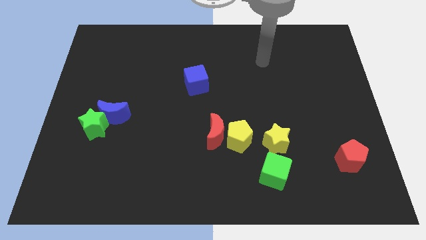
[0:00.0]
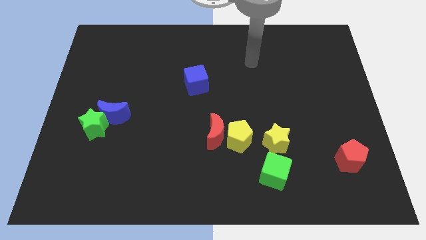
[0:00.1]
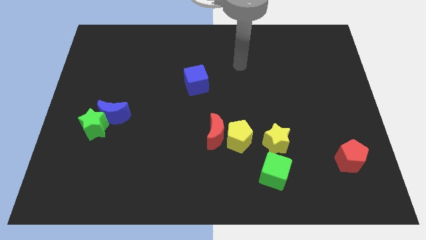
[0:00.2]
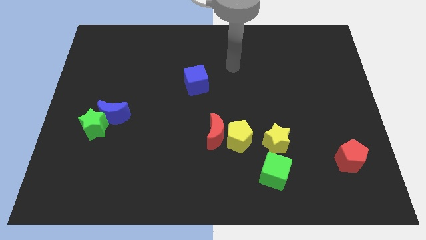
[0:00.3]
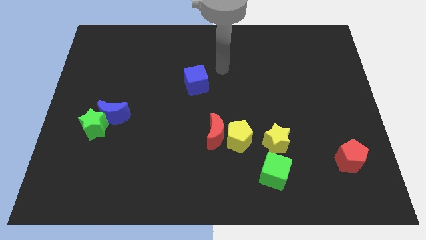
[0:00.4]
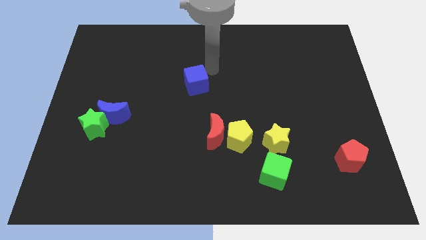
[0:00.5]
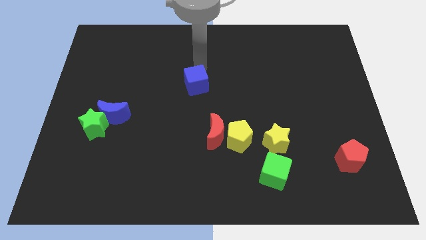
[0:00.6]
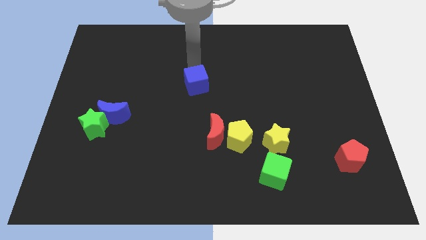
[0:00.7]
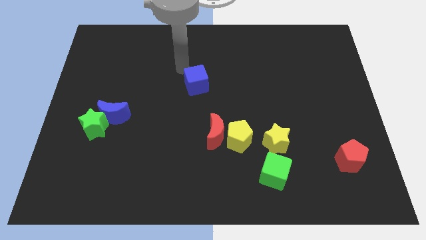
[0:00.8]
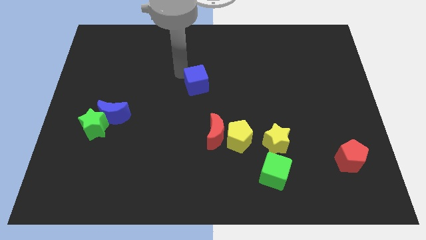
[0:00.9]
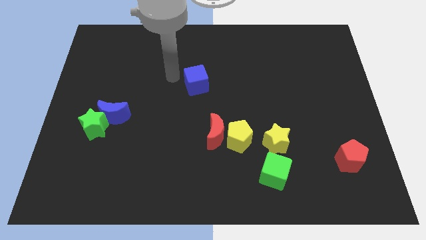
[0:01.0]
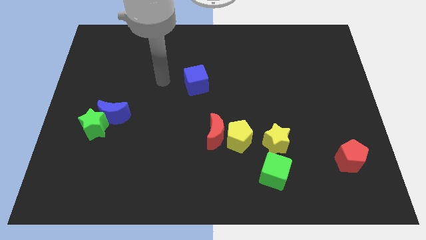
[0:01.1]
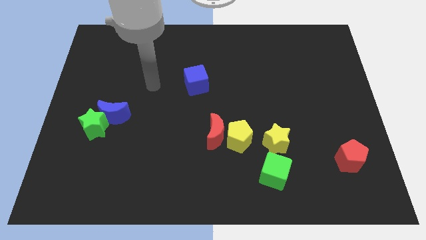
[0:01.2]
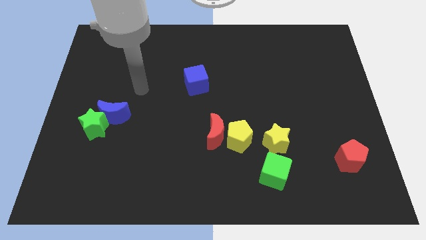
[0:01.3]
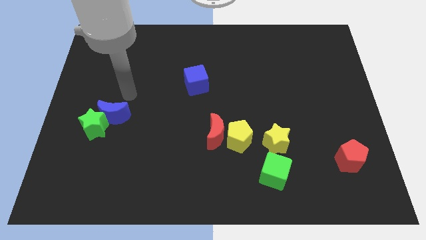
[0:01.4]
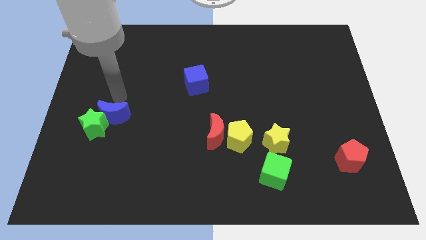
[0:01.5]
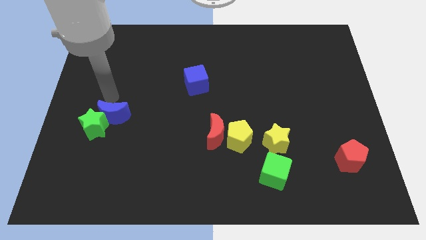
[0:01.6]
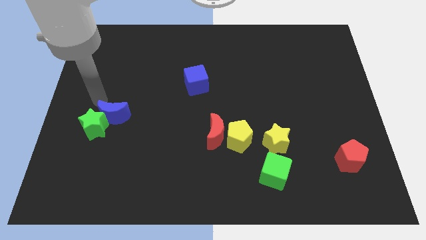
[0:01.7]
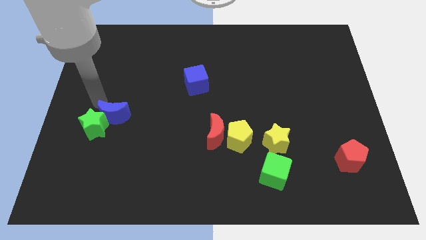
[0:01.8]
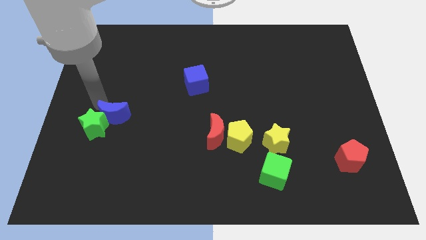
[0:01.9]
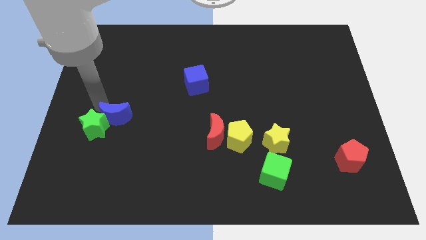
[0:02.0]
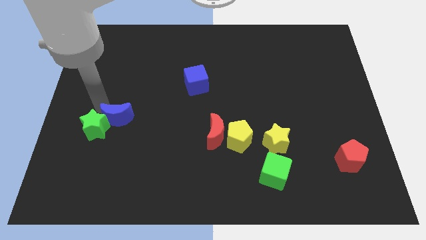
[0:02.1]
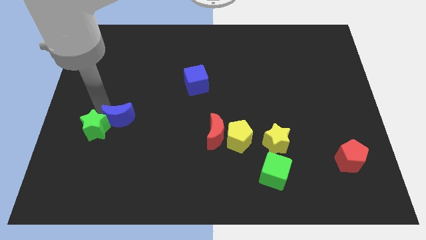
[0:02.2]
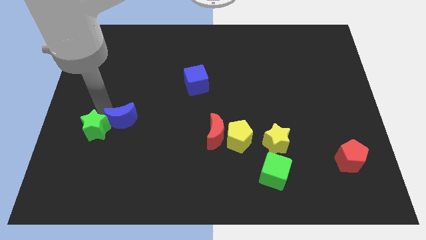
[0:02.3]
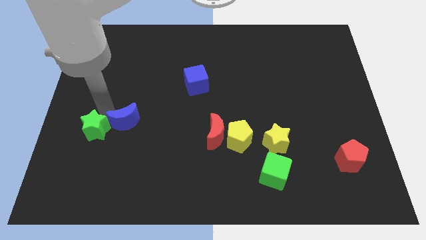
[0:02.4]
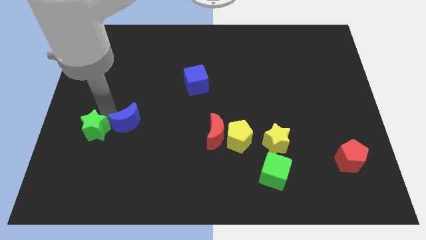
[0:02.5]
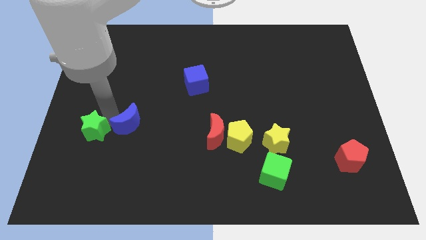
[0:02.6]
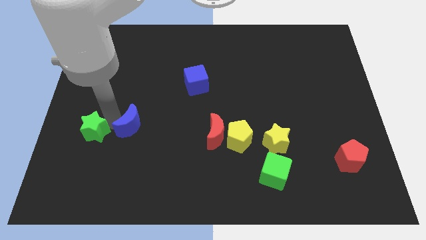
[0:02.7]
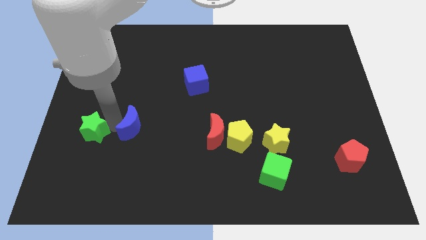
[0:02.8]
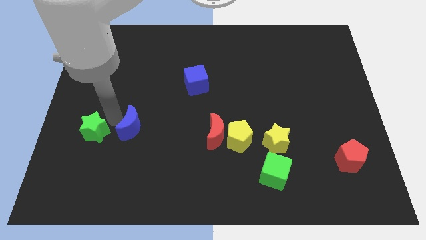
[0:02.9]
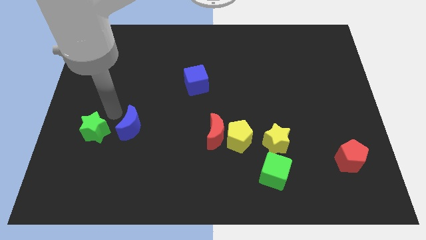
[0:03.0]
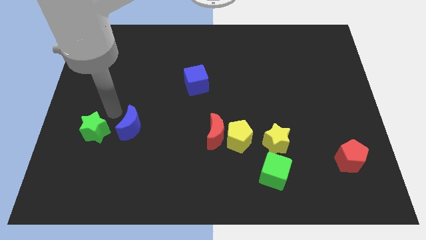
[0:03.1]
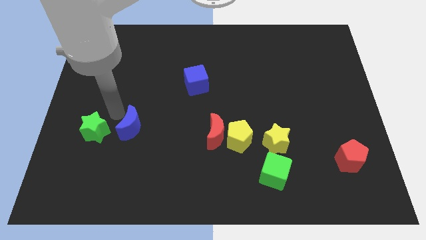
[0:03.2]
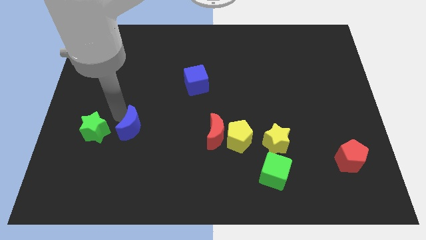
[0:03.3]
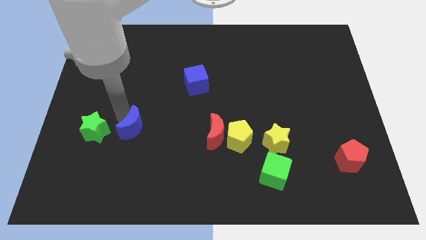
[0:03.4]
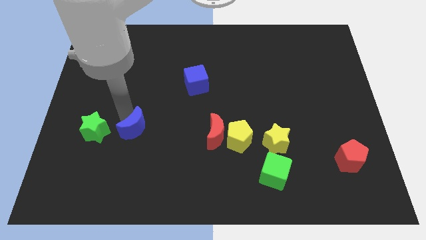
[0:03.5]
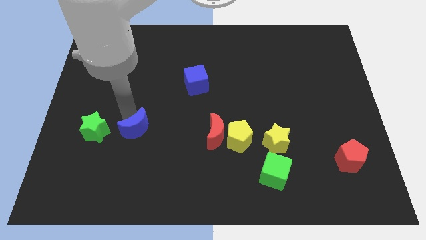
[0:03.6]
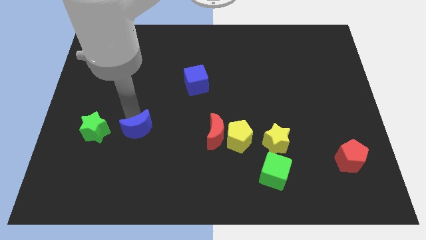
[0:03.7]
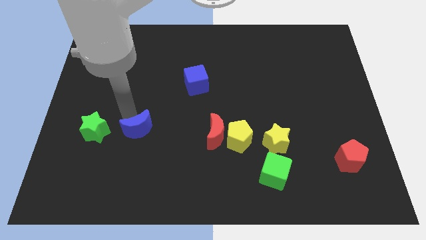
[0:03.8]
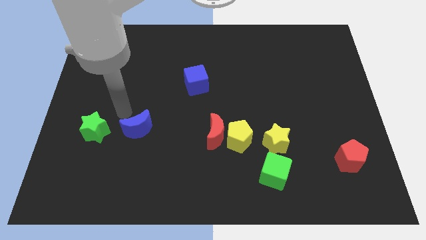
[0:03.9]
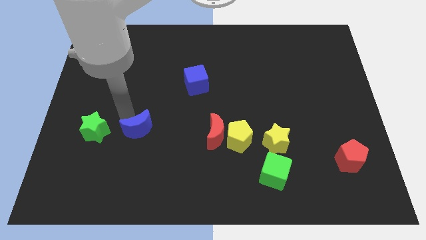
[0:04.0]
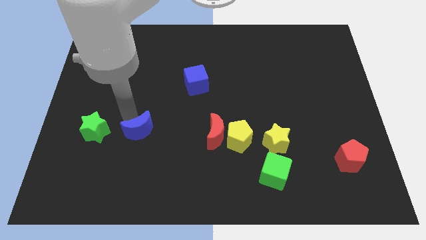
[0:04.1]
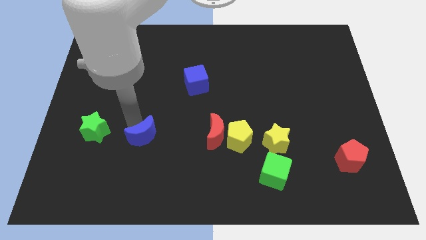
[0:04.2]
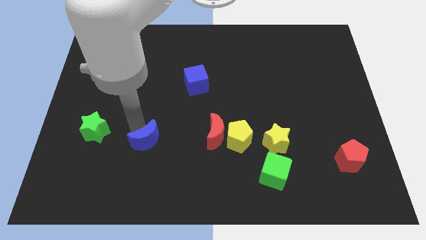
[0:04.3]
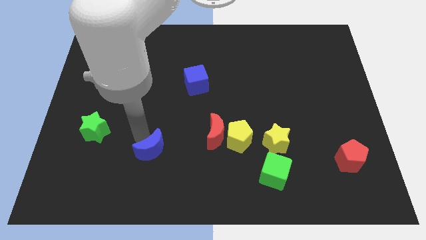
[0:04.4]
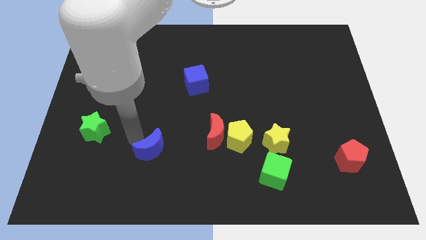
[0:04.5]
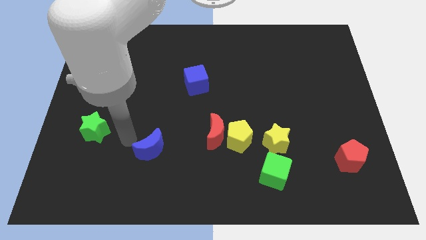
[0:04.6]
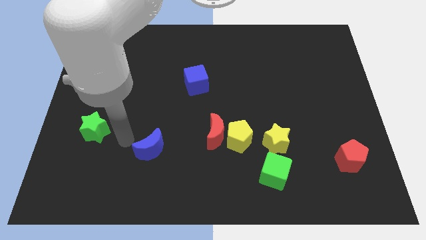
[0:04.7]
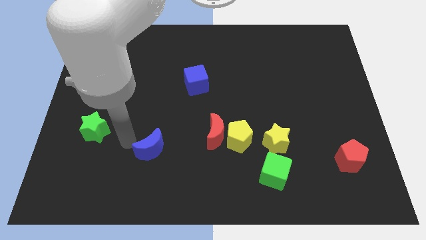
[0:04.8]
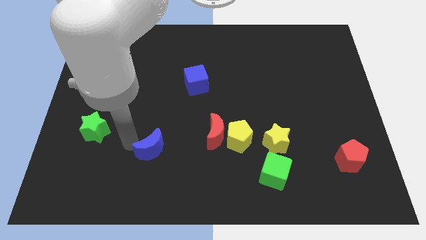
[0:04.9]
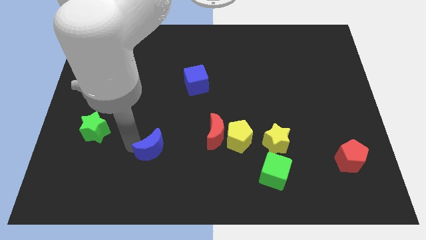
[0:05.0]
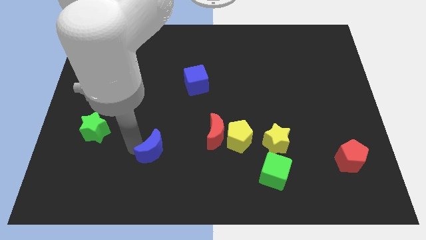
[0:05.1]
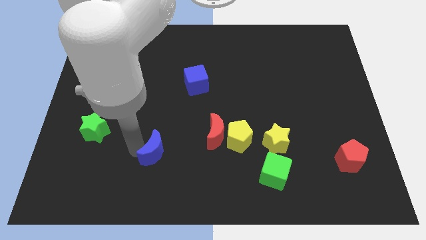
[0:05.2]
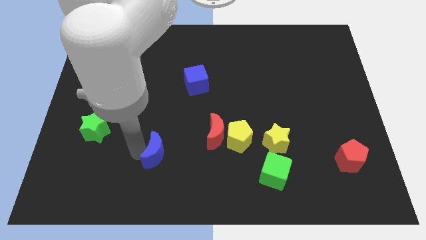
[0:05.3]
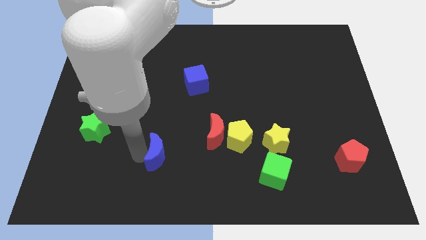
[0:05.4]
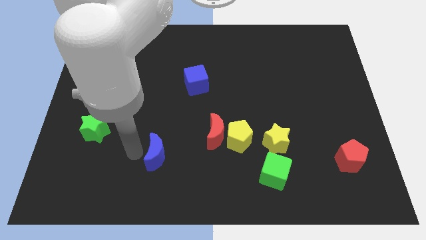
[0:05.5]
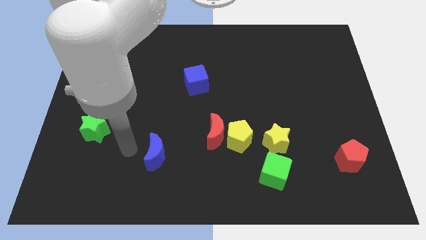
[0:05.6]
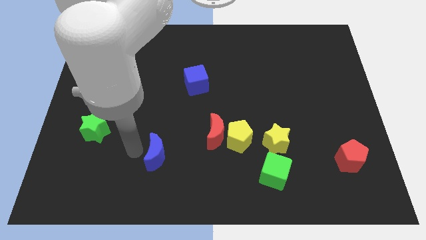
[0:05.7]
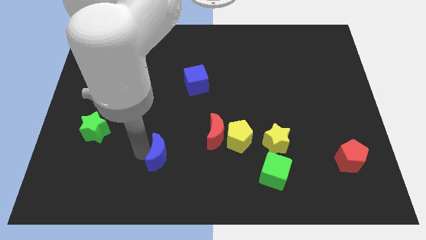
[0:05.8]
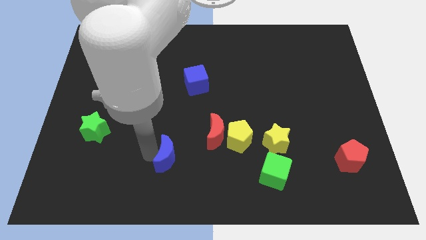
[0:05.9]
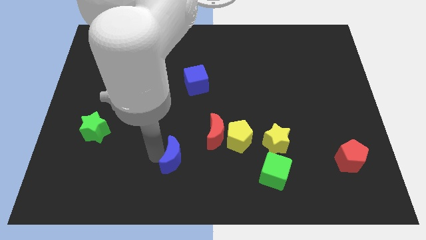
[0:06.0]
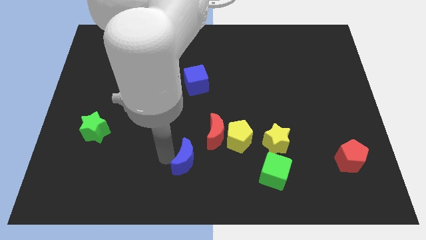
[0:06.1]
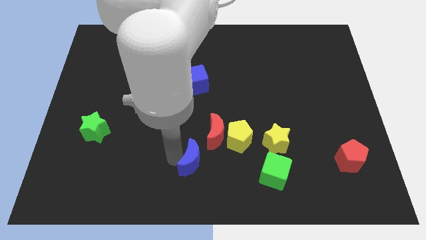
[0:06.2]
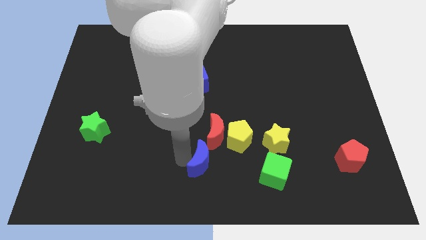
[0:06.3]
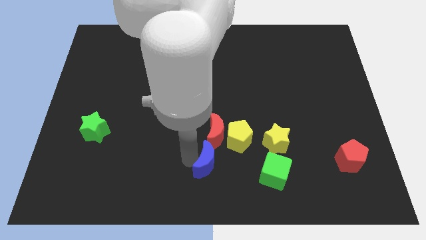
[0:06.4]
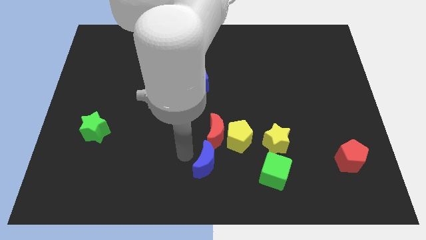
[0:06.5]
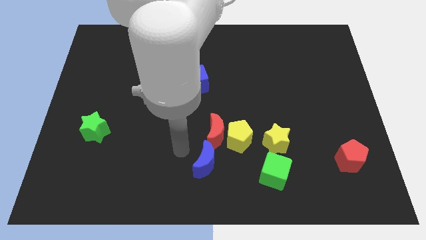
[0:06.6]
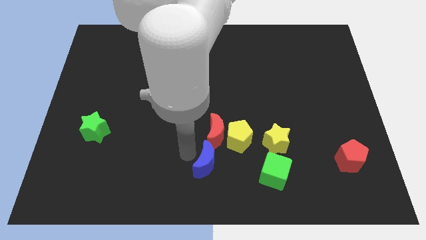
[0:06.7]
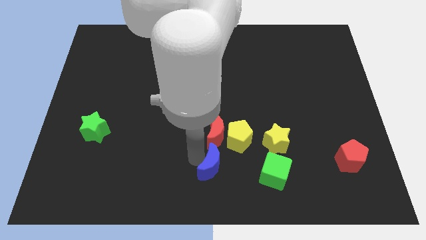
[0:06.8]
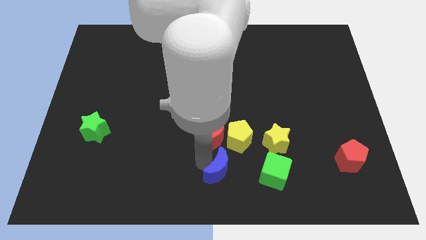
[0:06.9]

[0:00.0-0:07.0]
put the blue moon to the bottom of the yellow pentagon

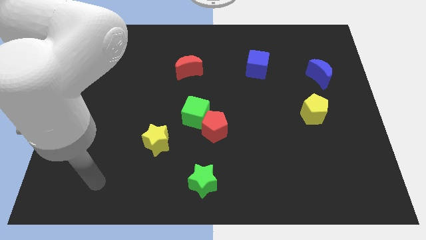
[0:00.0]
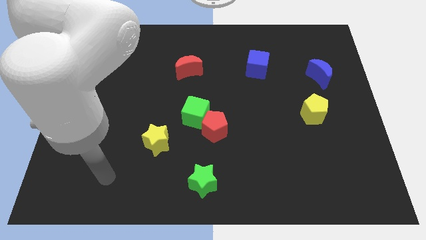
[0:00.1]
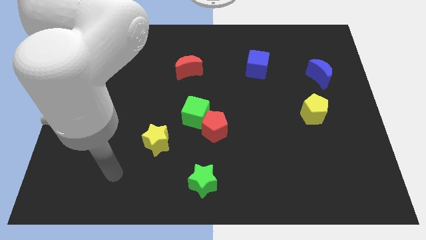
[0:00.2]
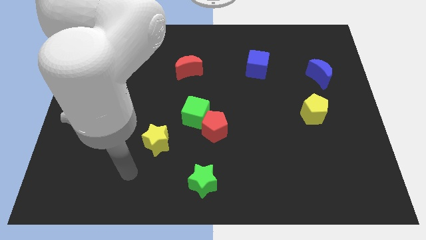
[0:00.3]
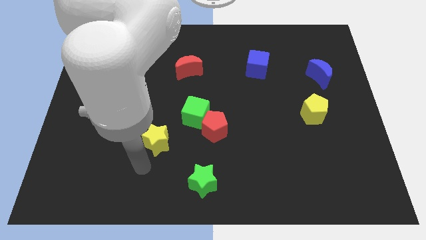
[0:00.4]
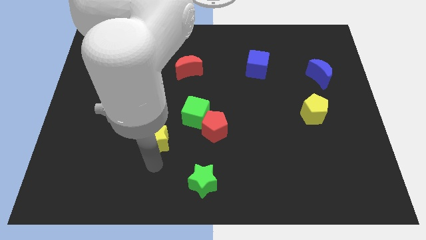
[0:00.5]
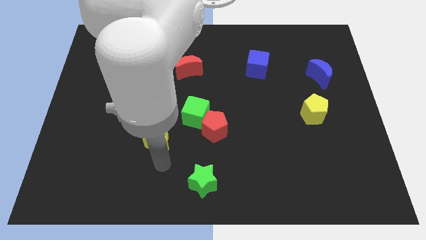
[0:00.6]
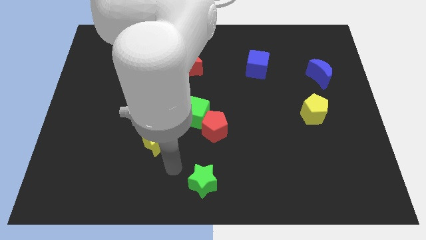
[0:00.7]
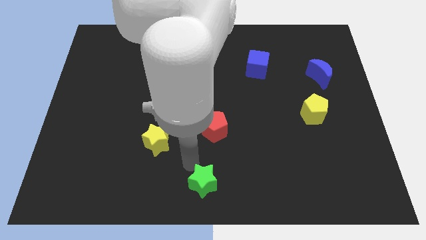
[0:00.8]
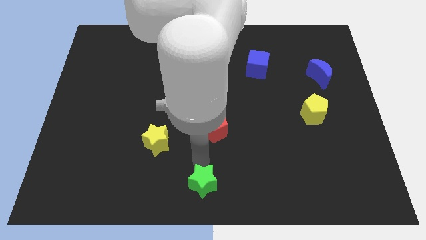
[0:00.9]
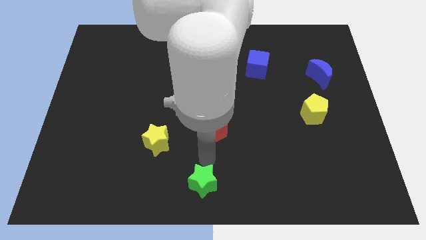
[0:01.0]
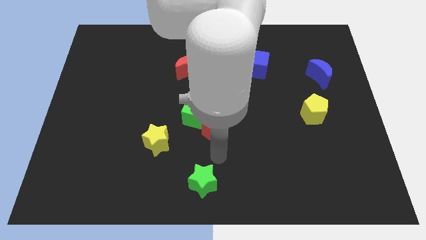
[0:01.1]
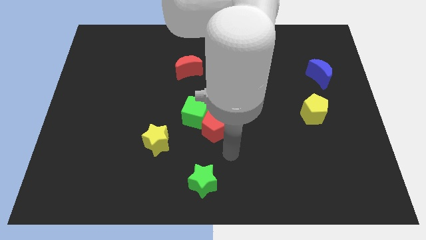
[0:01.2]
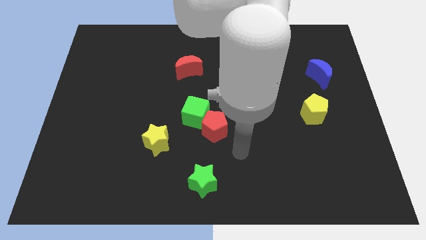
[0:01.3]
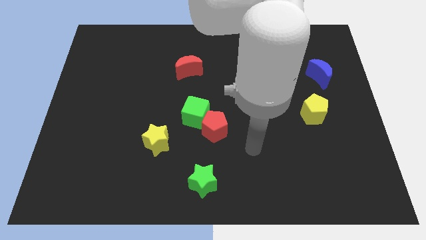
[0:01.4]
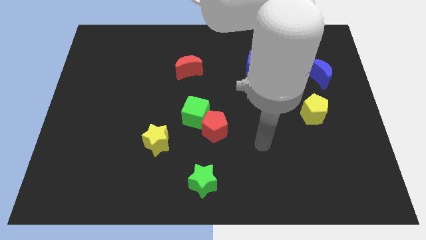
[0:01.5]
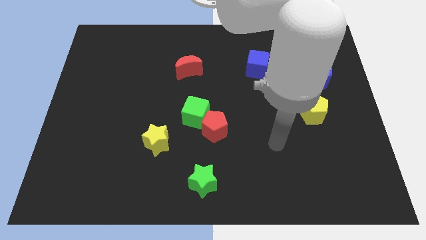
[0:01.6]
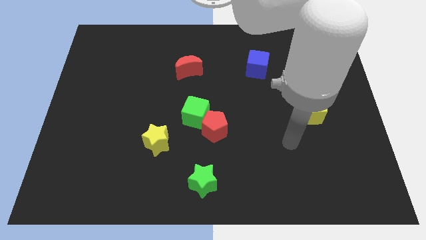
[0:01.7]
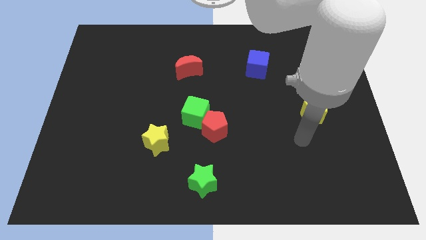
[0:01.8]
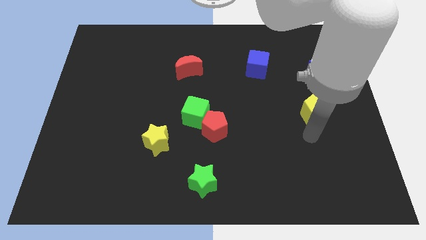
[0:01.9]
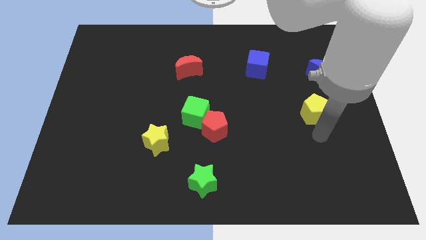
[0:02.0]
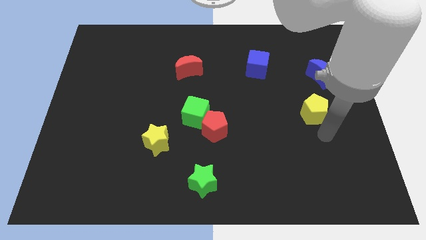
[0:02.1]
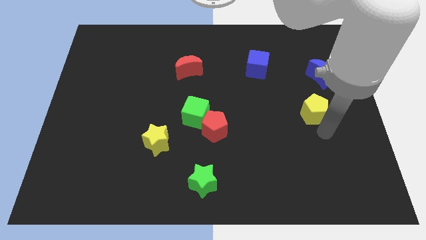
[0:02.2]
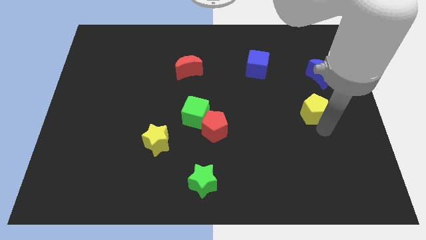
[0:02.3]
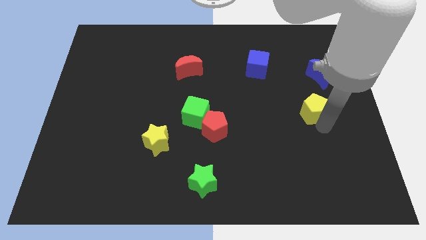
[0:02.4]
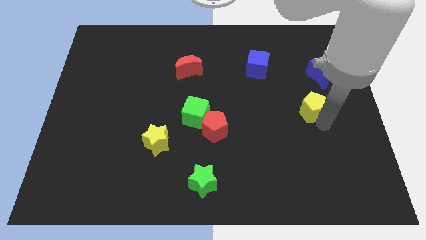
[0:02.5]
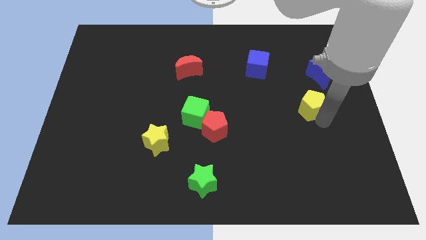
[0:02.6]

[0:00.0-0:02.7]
move the yellow pentagon to the bottom left side of the blue moon
